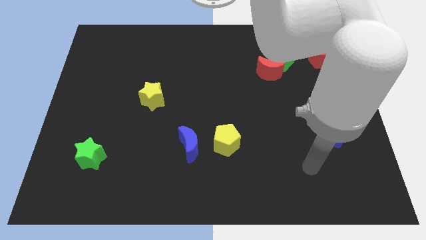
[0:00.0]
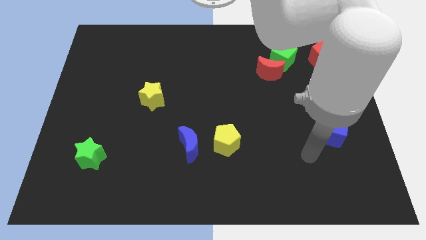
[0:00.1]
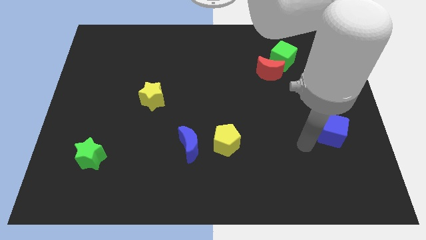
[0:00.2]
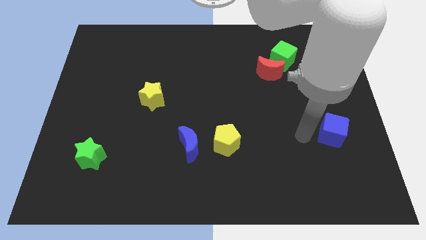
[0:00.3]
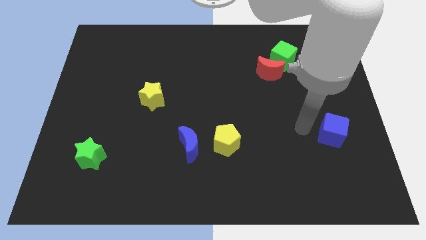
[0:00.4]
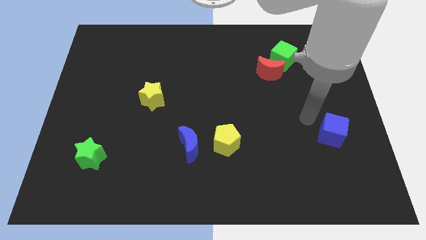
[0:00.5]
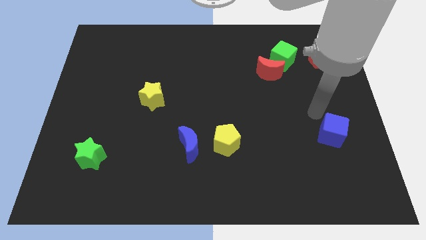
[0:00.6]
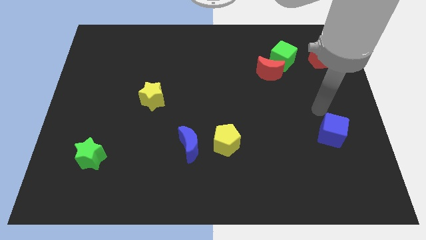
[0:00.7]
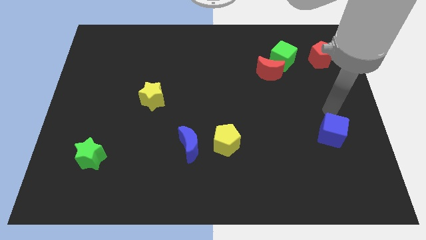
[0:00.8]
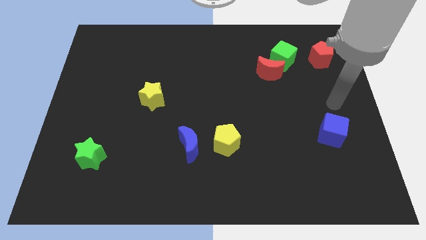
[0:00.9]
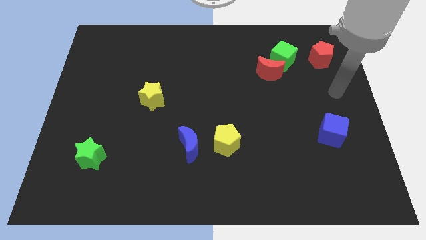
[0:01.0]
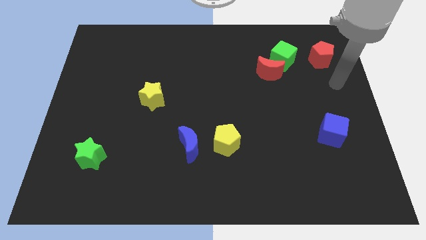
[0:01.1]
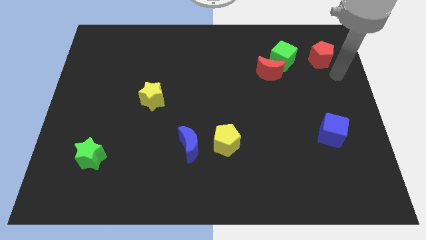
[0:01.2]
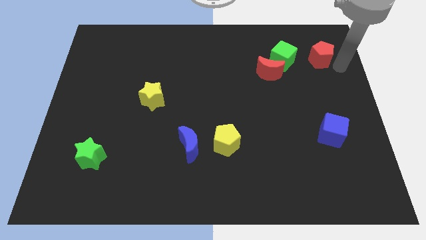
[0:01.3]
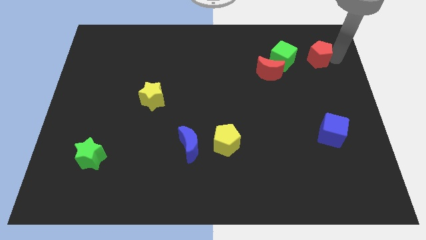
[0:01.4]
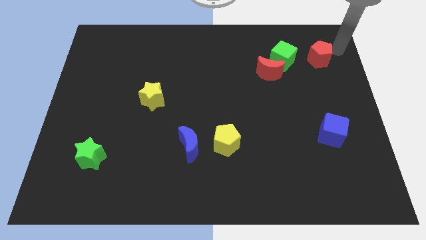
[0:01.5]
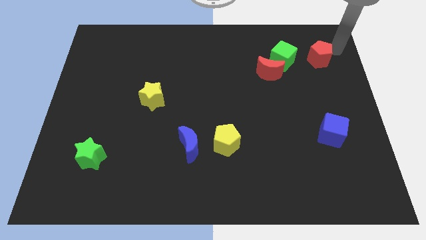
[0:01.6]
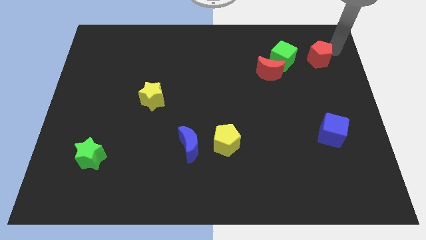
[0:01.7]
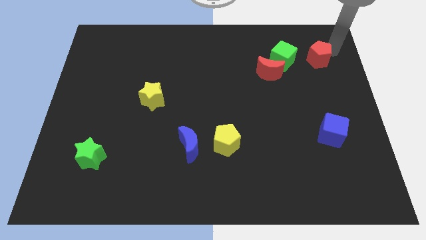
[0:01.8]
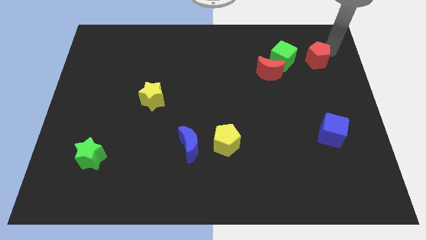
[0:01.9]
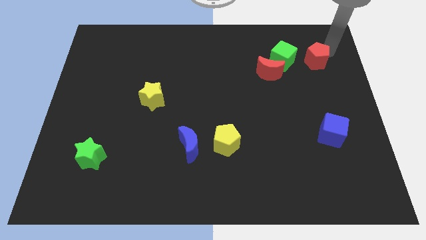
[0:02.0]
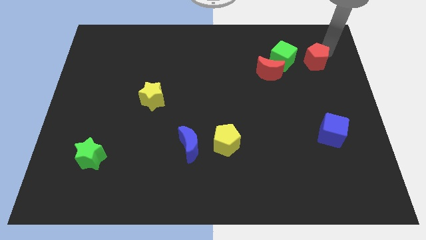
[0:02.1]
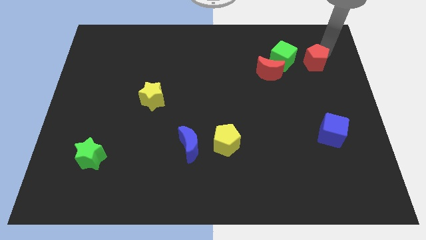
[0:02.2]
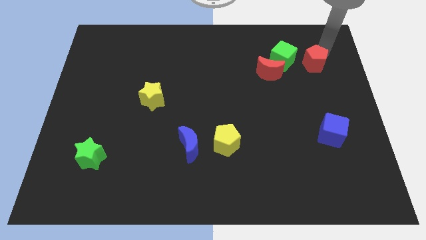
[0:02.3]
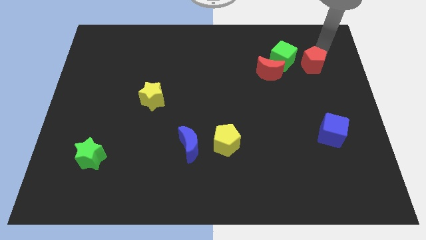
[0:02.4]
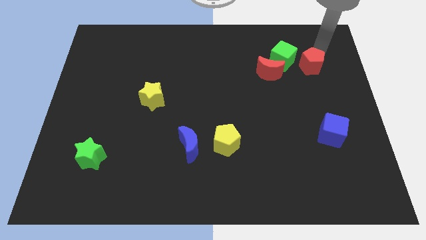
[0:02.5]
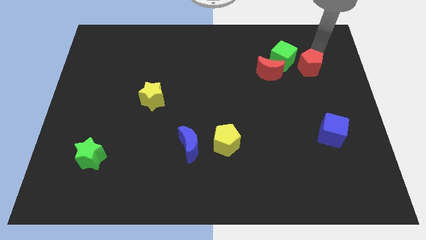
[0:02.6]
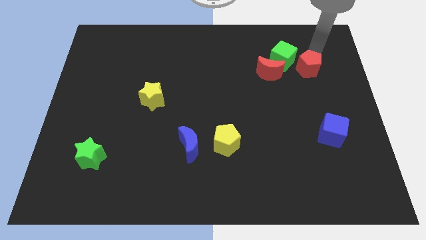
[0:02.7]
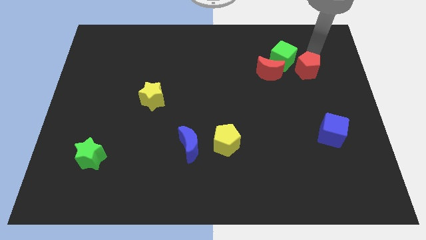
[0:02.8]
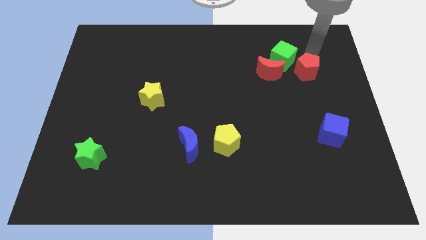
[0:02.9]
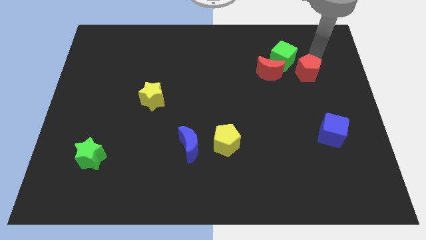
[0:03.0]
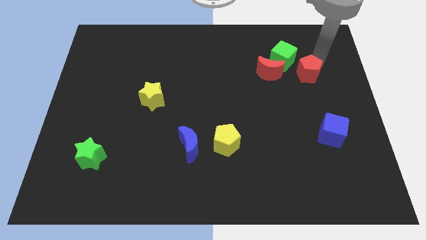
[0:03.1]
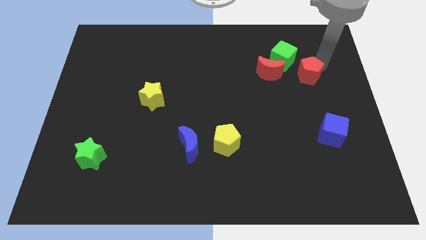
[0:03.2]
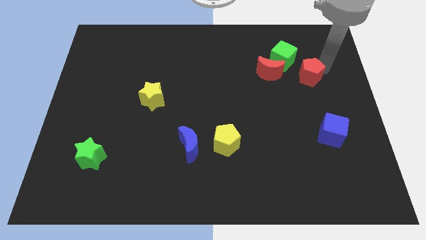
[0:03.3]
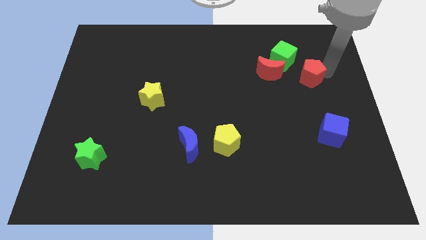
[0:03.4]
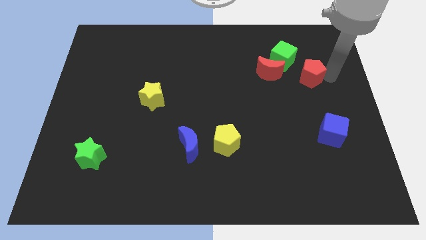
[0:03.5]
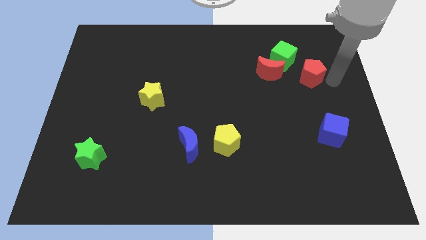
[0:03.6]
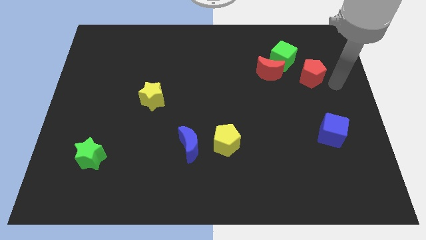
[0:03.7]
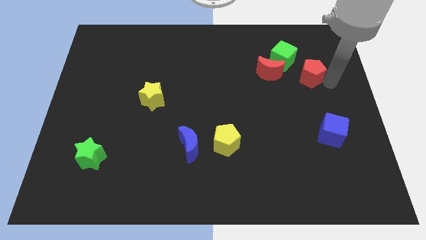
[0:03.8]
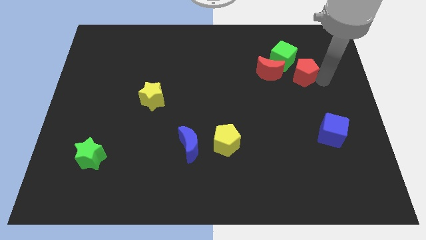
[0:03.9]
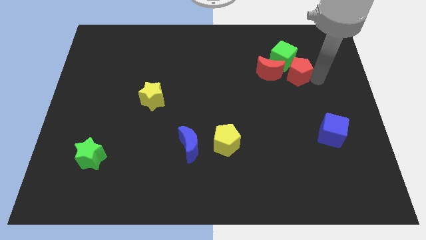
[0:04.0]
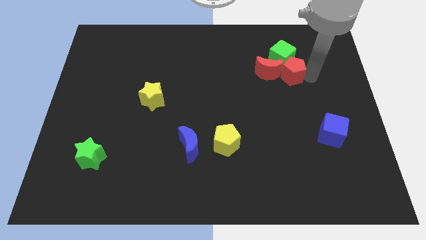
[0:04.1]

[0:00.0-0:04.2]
move the red pentagon towards the red moon

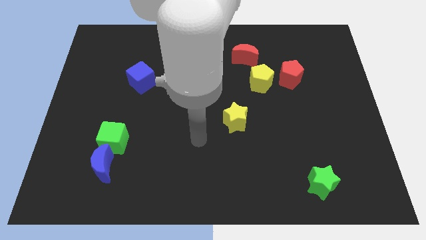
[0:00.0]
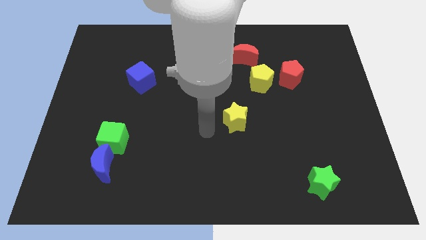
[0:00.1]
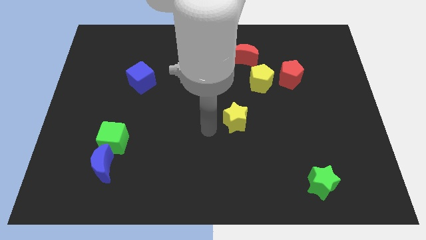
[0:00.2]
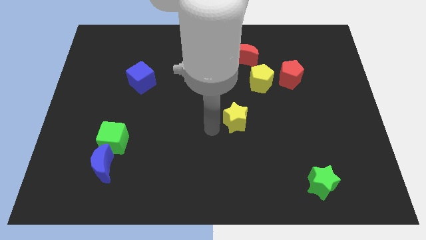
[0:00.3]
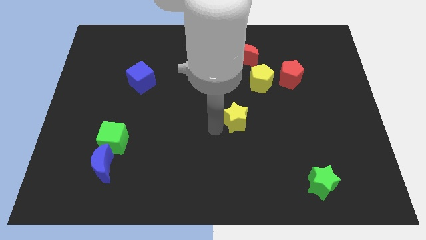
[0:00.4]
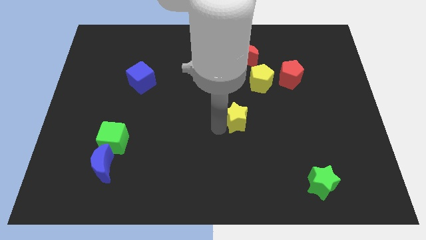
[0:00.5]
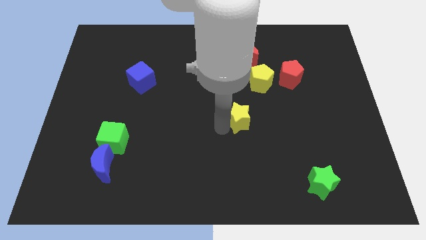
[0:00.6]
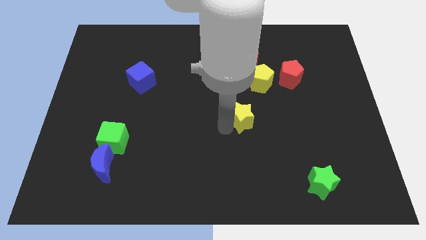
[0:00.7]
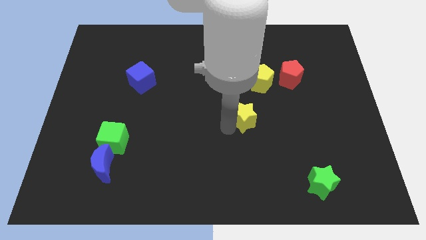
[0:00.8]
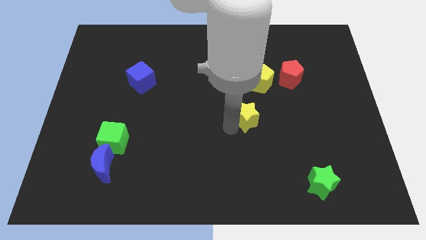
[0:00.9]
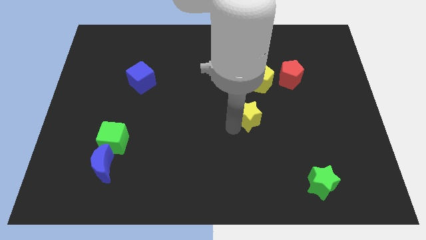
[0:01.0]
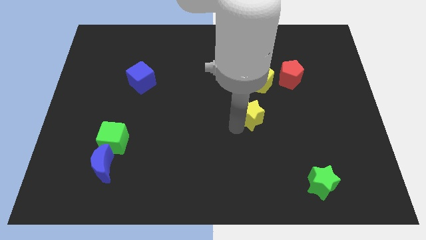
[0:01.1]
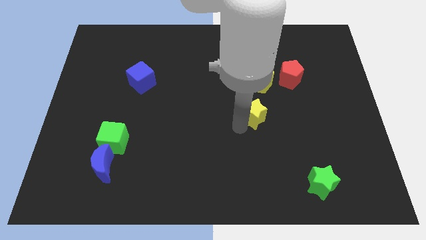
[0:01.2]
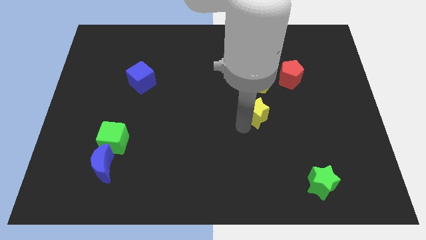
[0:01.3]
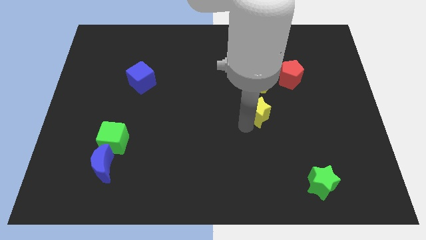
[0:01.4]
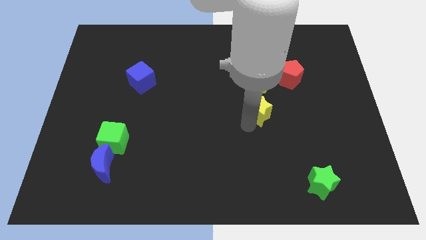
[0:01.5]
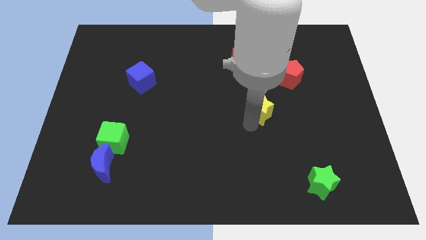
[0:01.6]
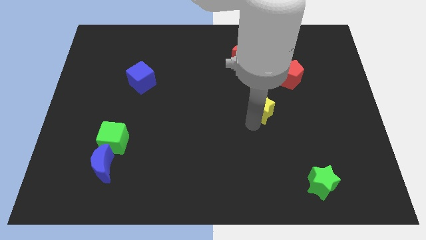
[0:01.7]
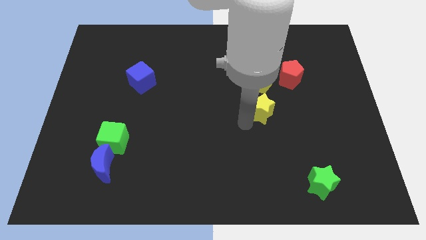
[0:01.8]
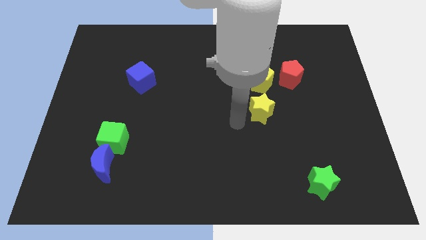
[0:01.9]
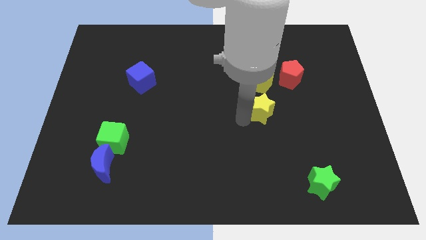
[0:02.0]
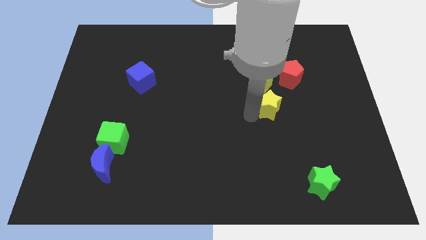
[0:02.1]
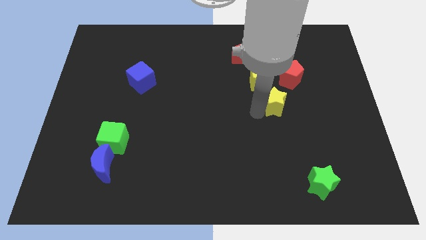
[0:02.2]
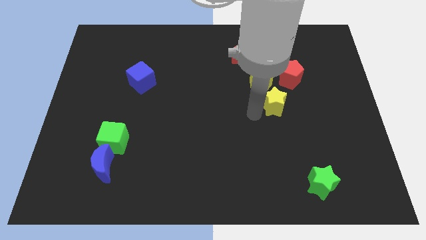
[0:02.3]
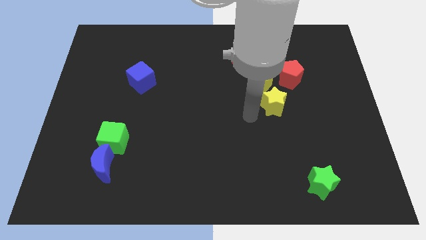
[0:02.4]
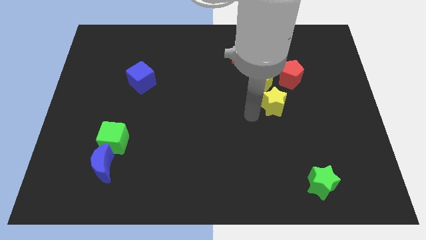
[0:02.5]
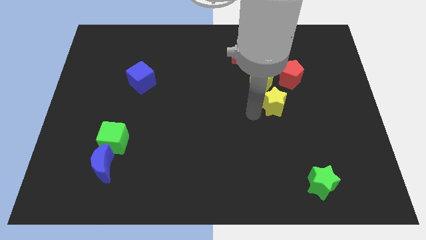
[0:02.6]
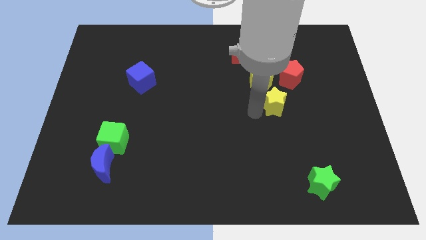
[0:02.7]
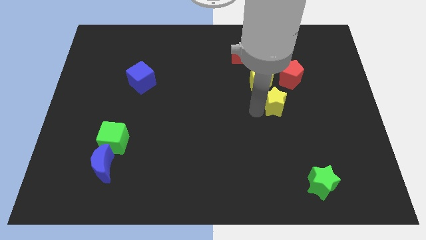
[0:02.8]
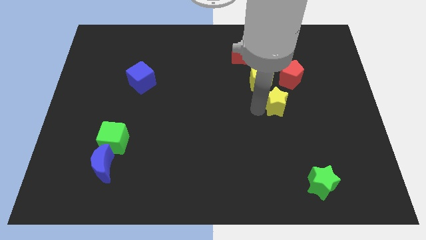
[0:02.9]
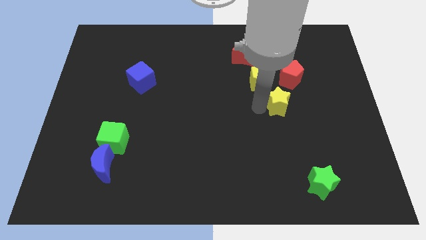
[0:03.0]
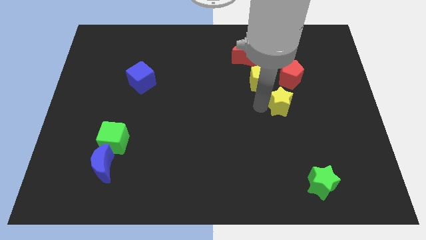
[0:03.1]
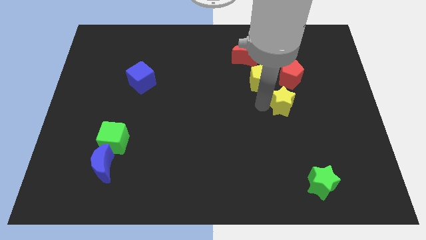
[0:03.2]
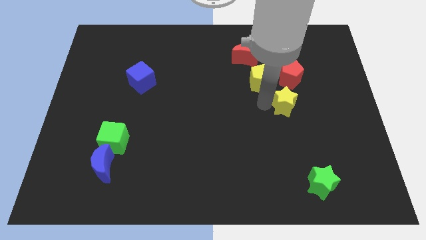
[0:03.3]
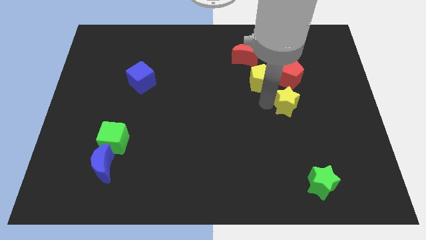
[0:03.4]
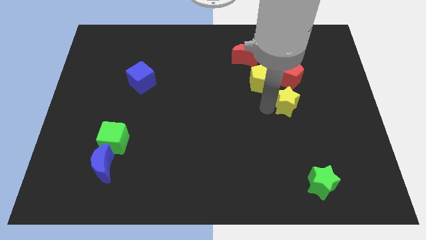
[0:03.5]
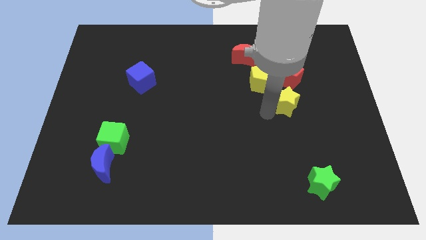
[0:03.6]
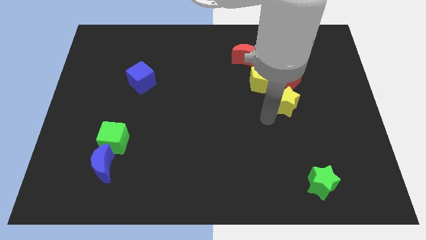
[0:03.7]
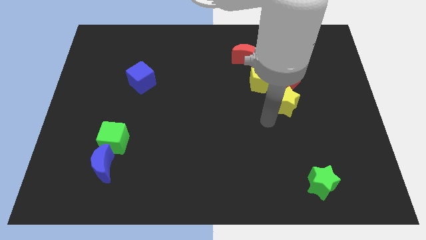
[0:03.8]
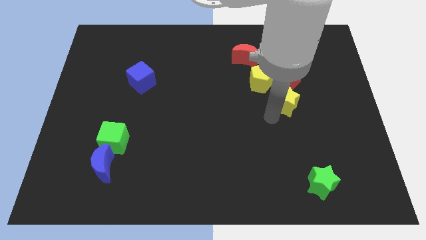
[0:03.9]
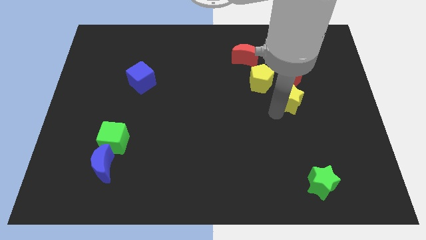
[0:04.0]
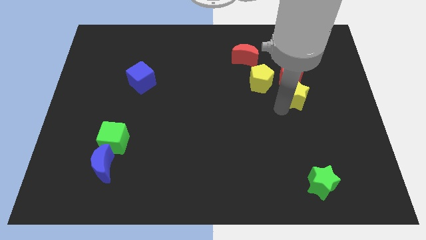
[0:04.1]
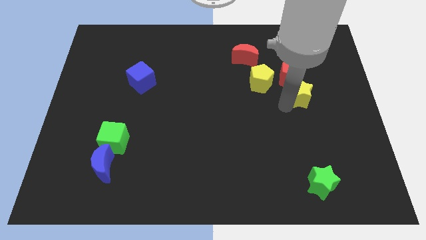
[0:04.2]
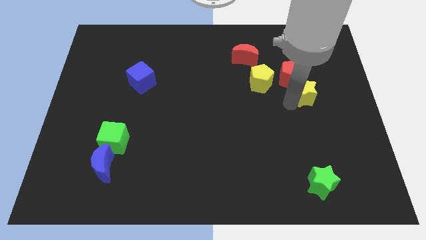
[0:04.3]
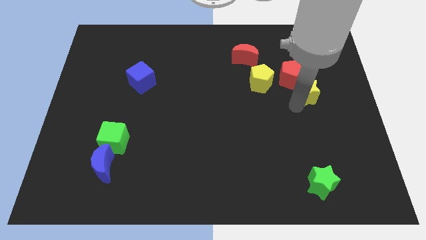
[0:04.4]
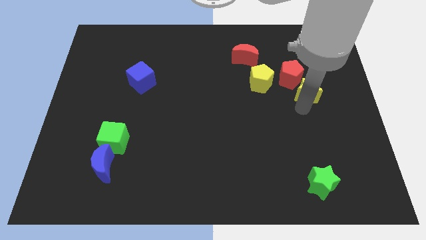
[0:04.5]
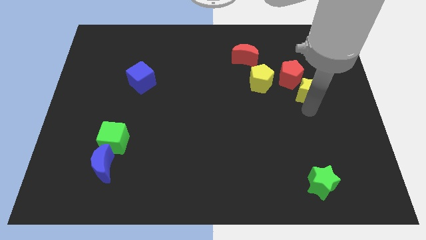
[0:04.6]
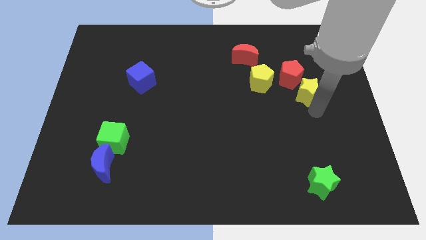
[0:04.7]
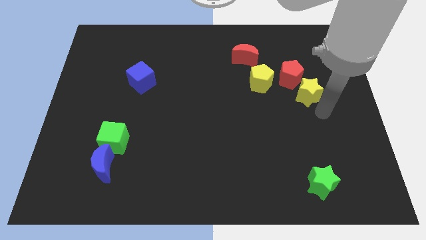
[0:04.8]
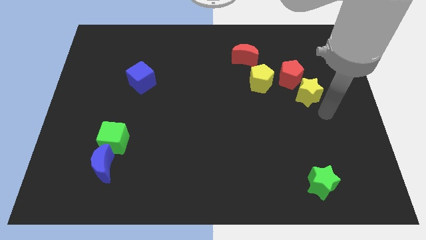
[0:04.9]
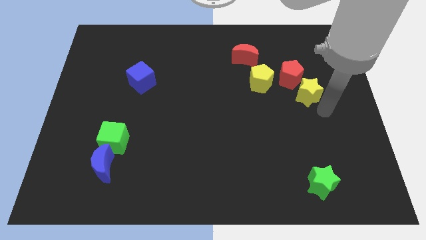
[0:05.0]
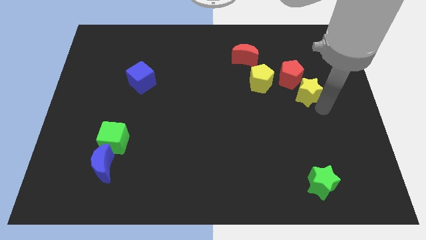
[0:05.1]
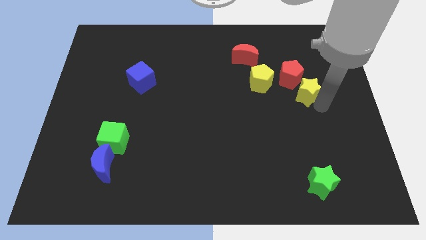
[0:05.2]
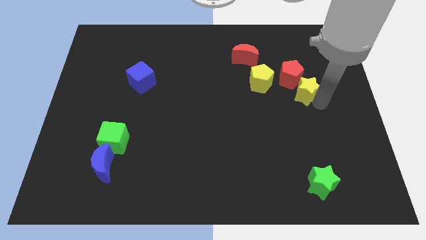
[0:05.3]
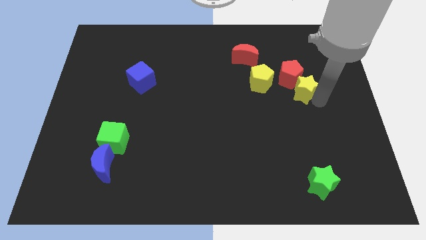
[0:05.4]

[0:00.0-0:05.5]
slide the yellow star to the red pentagon
